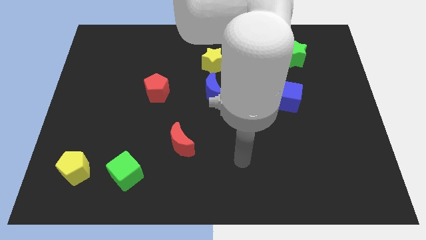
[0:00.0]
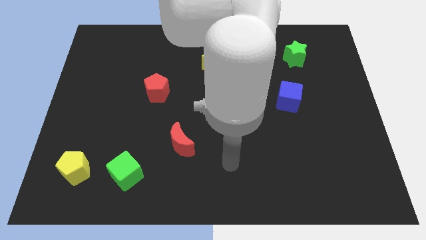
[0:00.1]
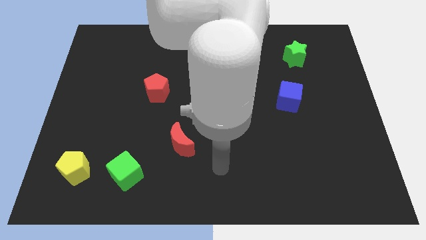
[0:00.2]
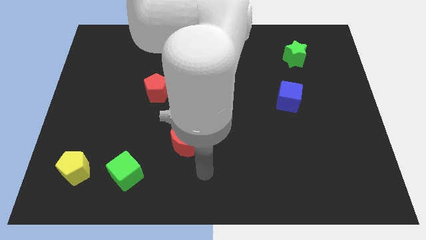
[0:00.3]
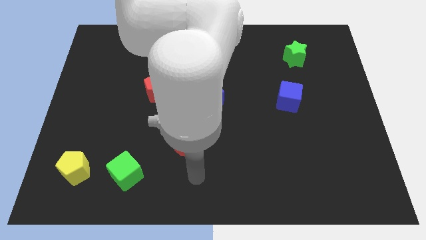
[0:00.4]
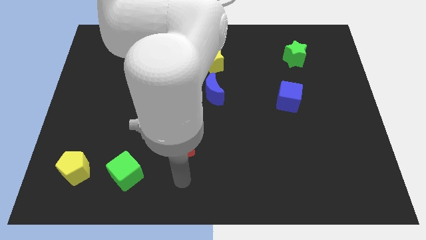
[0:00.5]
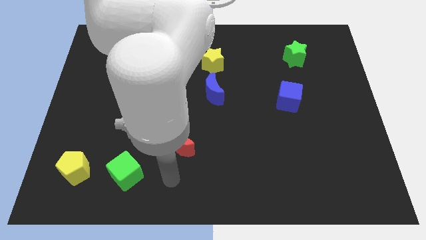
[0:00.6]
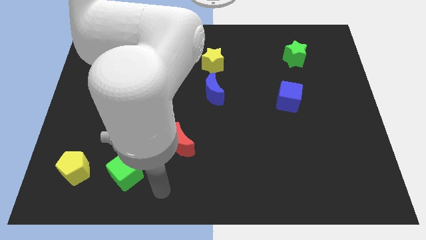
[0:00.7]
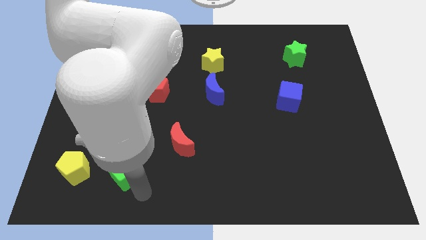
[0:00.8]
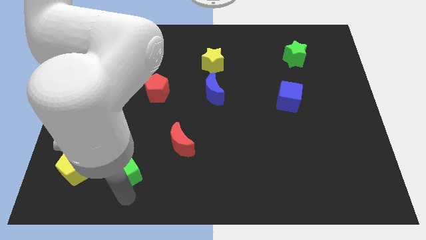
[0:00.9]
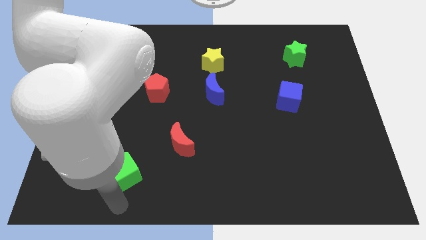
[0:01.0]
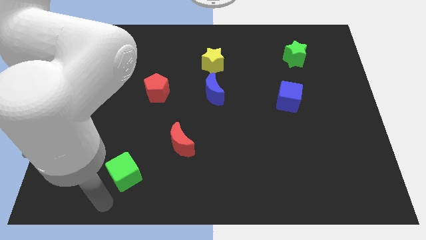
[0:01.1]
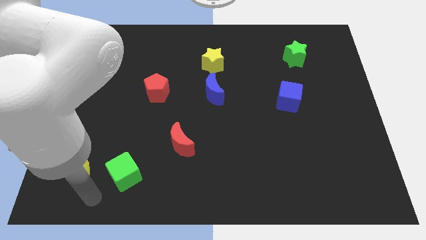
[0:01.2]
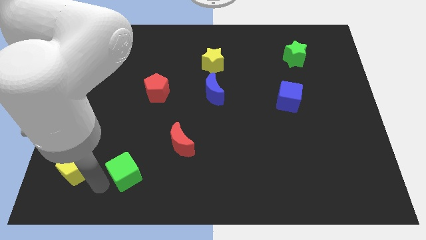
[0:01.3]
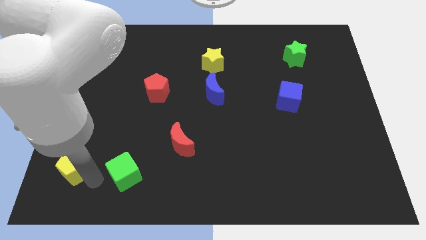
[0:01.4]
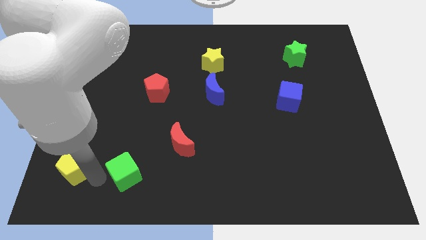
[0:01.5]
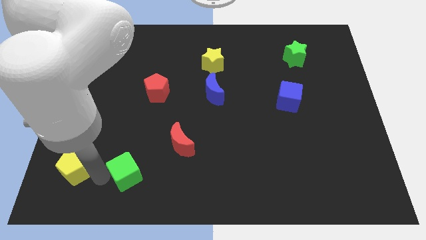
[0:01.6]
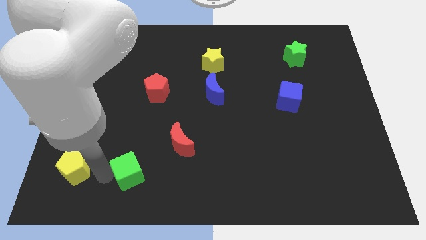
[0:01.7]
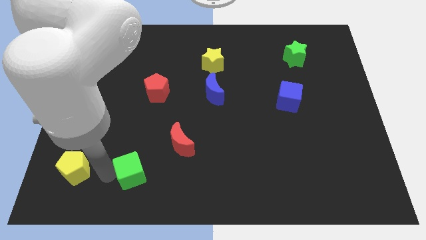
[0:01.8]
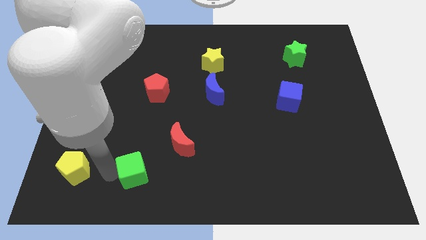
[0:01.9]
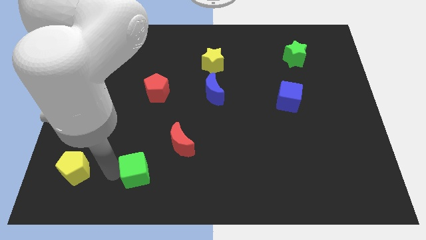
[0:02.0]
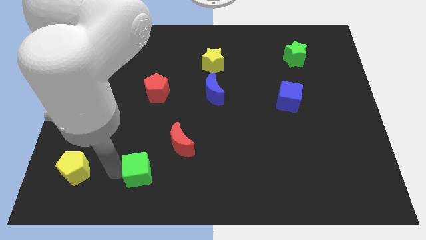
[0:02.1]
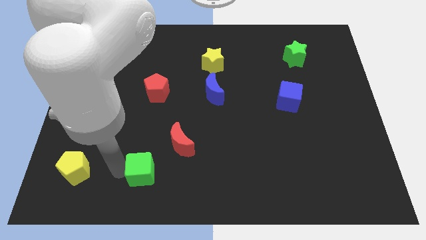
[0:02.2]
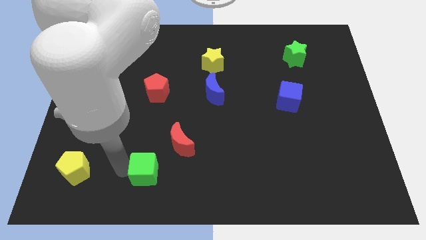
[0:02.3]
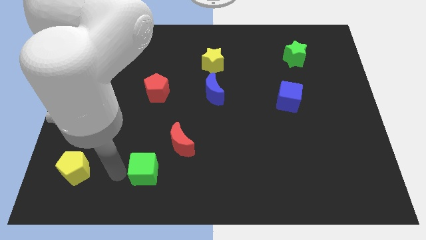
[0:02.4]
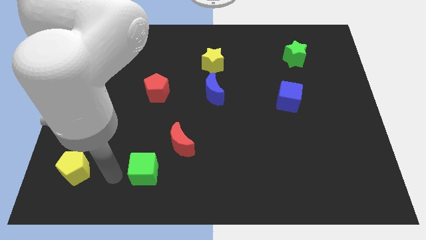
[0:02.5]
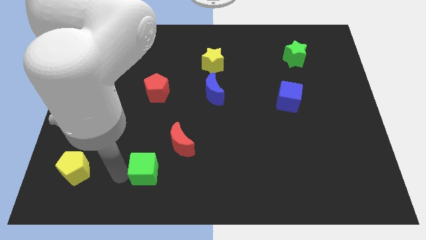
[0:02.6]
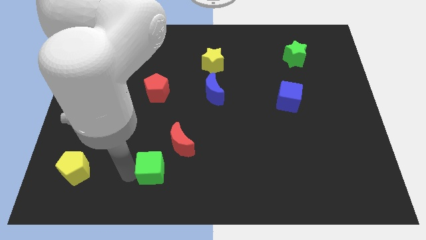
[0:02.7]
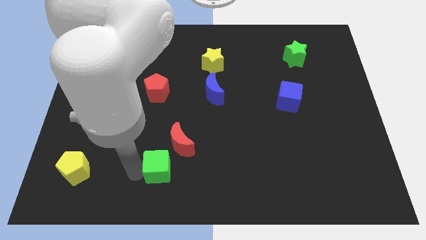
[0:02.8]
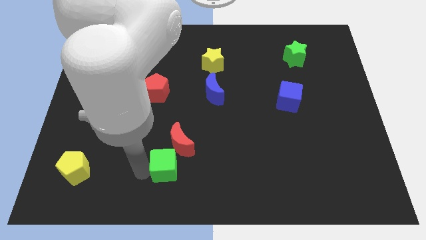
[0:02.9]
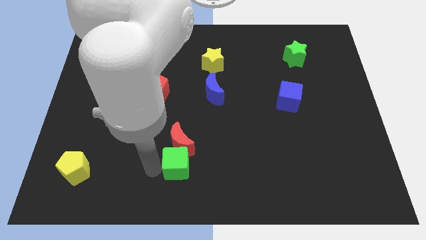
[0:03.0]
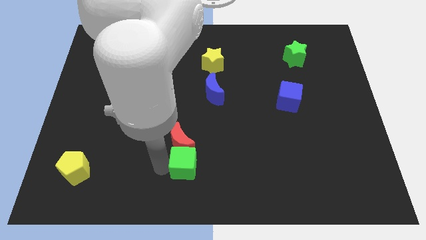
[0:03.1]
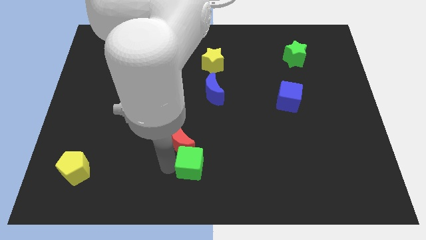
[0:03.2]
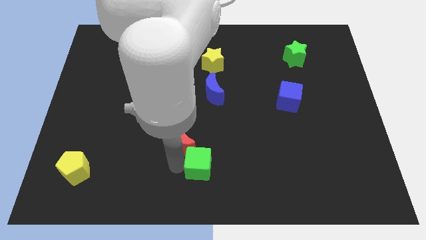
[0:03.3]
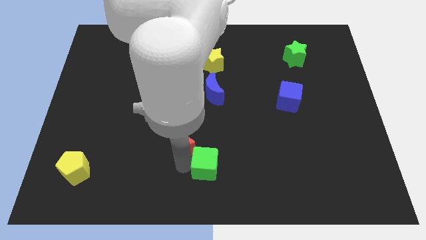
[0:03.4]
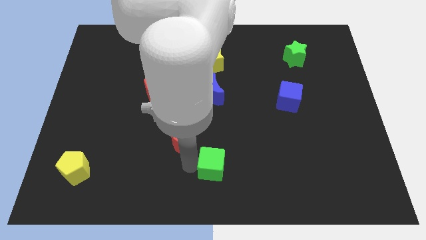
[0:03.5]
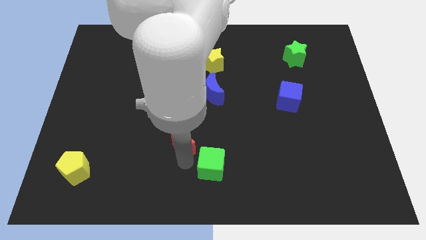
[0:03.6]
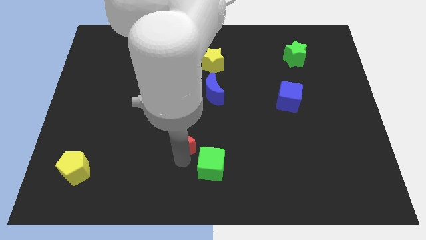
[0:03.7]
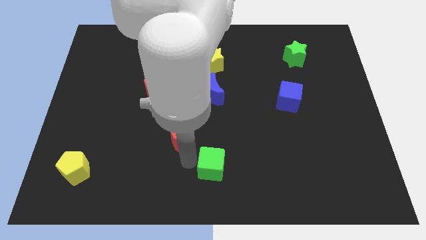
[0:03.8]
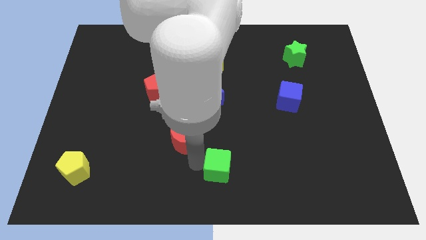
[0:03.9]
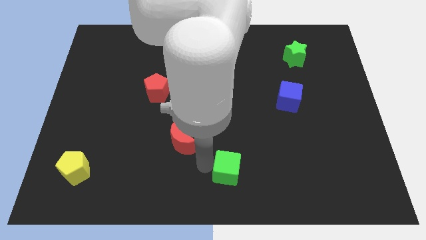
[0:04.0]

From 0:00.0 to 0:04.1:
slide the green cube right

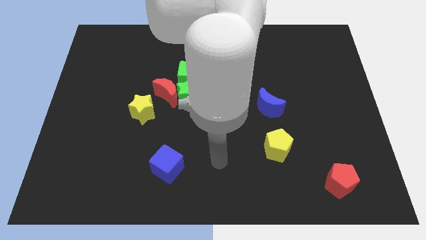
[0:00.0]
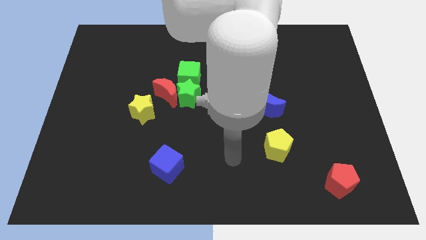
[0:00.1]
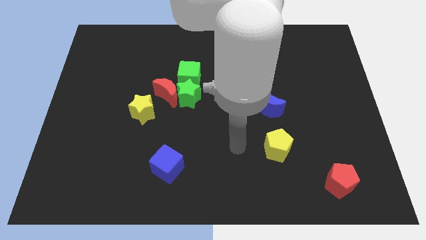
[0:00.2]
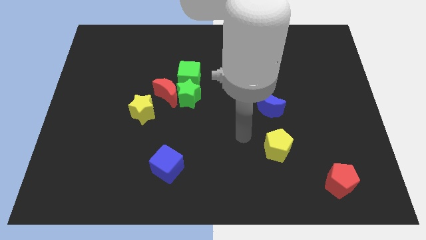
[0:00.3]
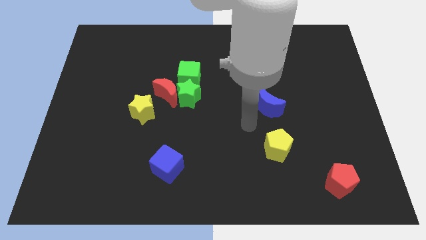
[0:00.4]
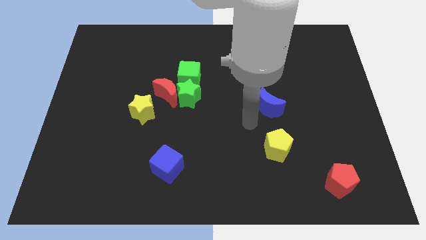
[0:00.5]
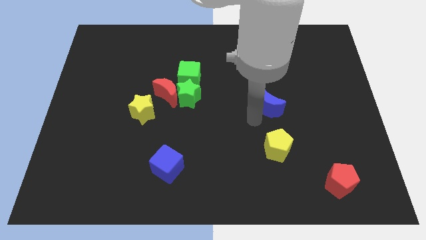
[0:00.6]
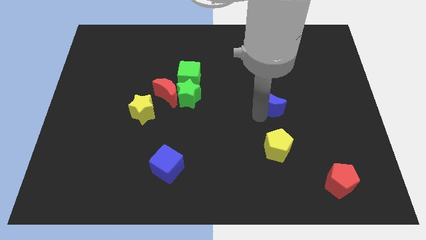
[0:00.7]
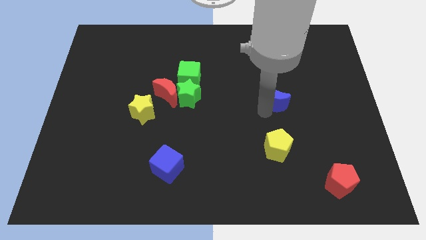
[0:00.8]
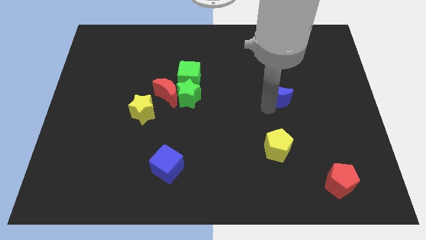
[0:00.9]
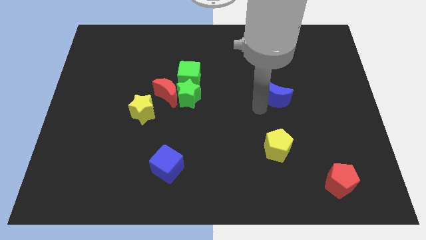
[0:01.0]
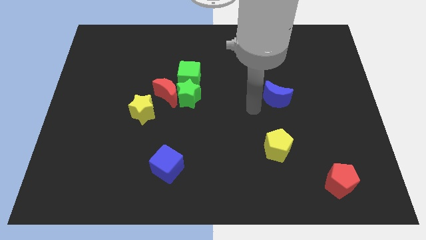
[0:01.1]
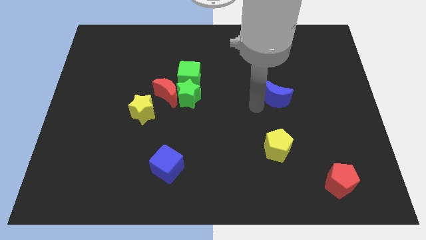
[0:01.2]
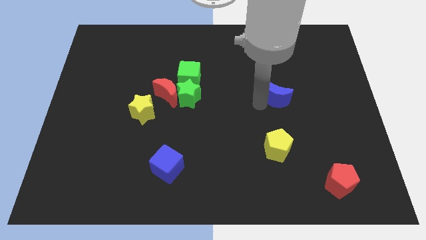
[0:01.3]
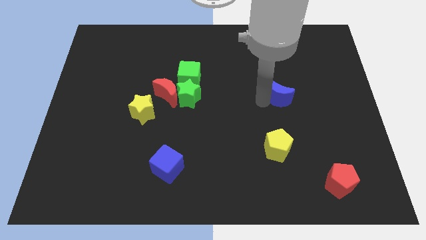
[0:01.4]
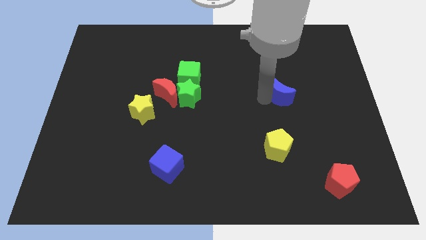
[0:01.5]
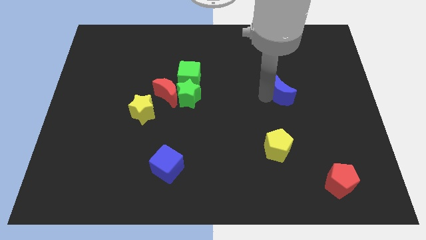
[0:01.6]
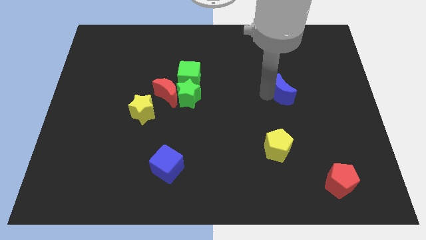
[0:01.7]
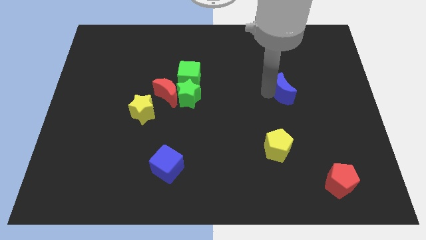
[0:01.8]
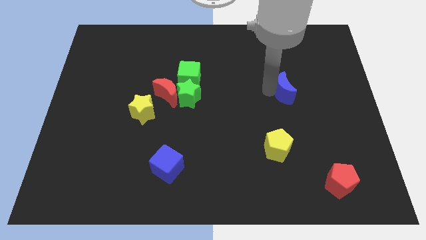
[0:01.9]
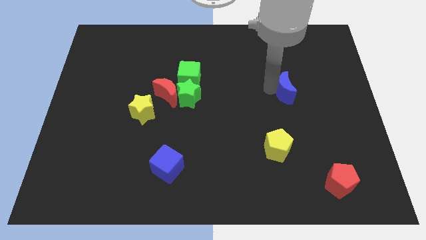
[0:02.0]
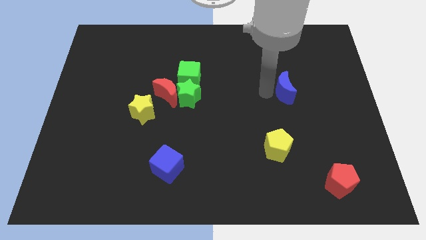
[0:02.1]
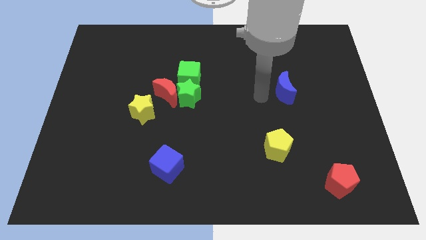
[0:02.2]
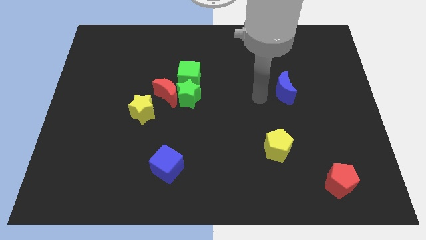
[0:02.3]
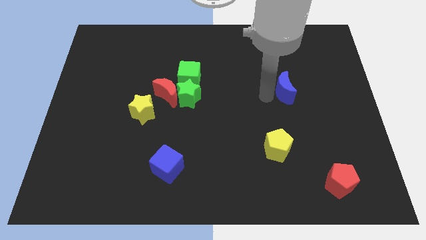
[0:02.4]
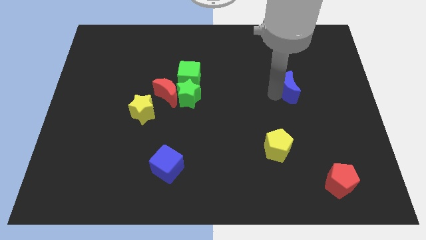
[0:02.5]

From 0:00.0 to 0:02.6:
move the blue moon somewhat up and then to the right

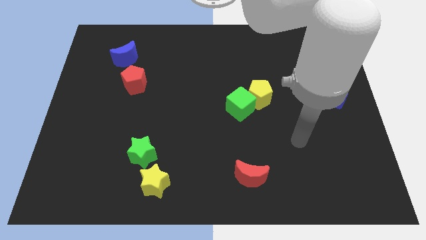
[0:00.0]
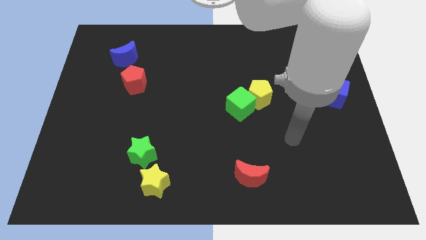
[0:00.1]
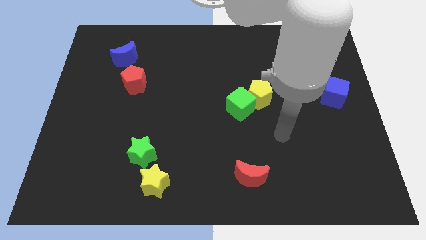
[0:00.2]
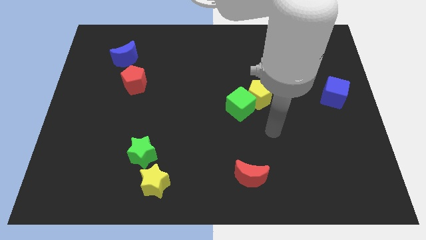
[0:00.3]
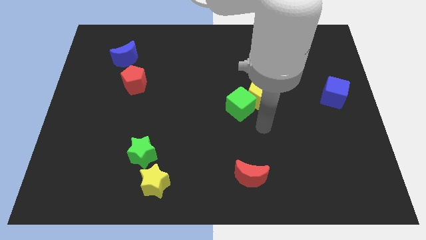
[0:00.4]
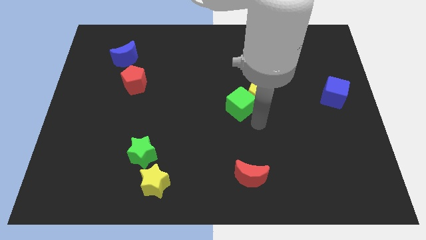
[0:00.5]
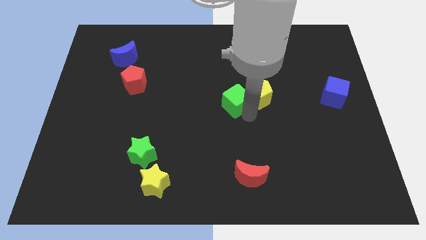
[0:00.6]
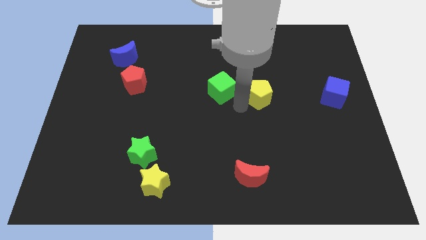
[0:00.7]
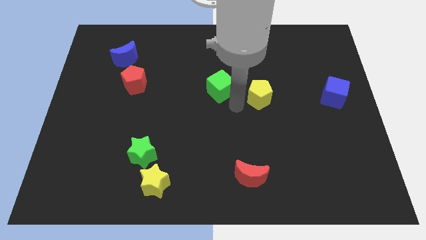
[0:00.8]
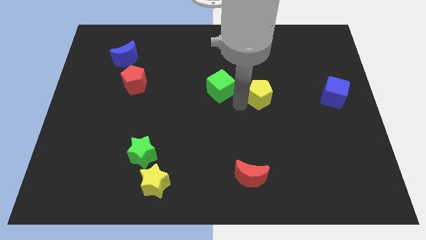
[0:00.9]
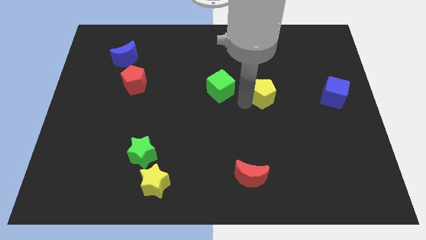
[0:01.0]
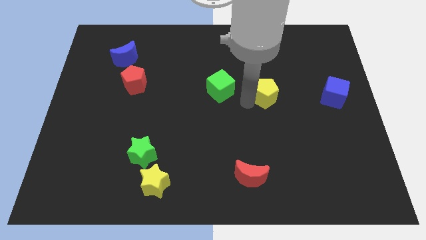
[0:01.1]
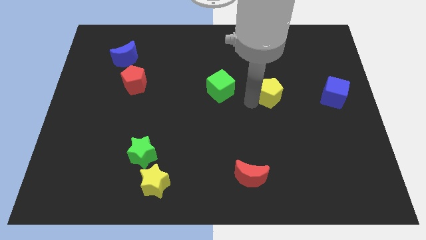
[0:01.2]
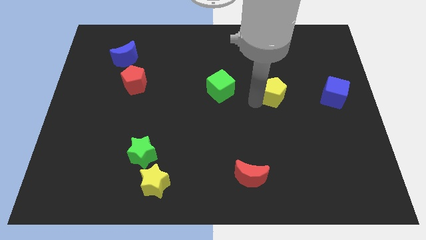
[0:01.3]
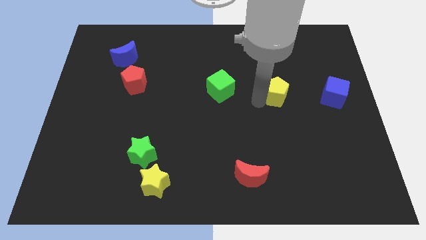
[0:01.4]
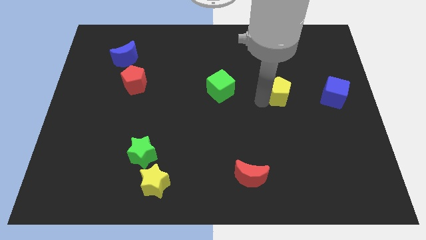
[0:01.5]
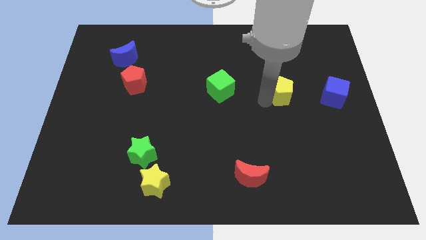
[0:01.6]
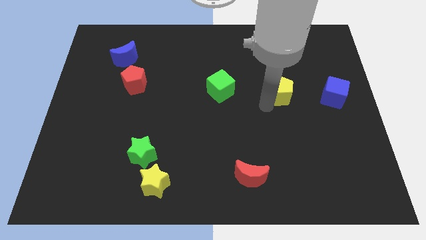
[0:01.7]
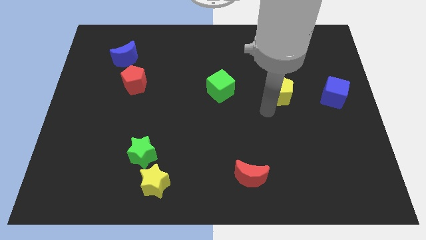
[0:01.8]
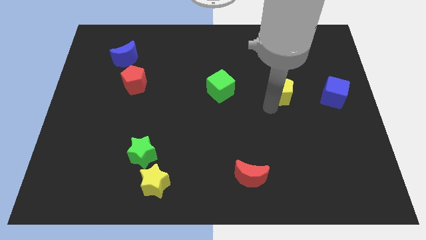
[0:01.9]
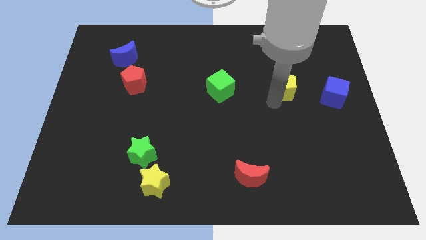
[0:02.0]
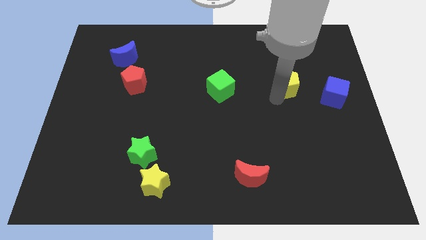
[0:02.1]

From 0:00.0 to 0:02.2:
slightly slide the yellow pentagon up and to the right diagonally
